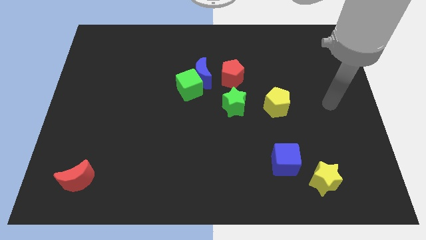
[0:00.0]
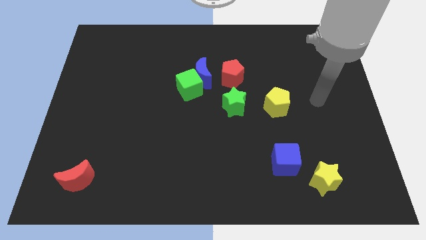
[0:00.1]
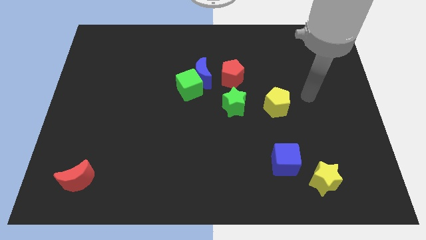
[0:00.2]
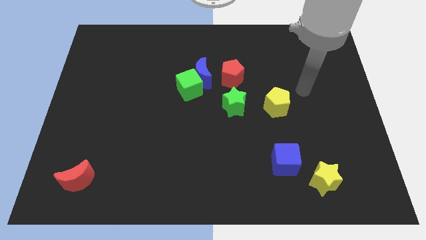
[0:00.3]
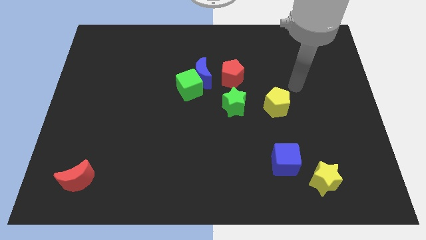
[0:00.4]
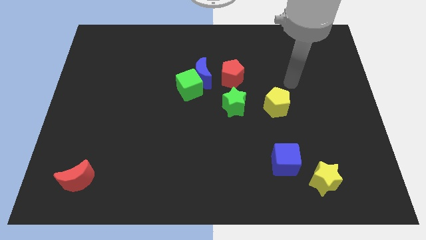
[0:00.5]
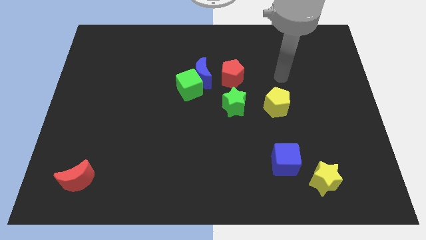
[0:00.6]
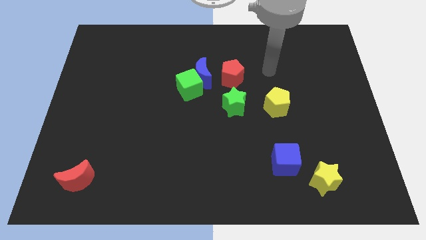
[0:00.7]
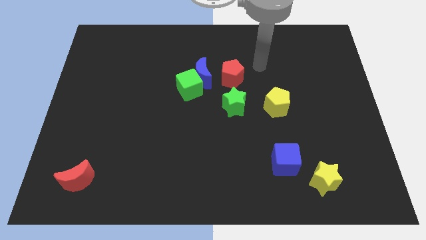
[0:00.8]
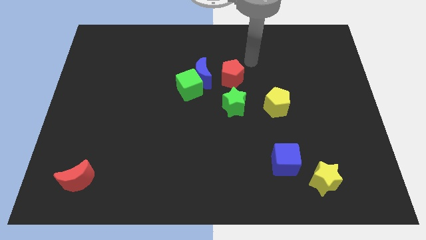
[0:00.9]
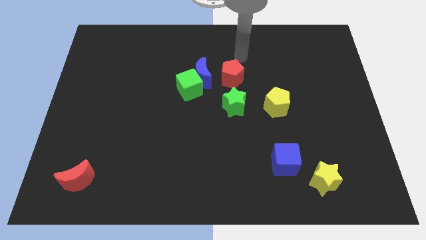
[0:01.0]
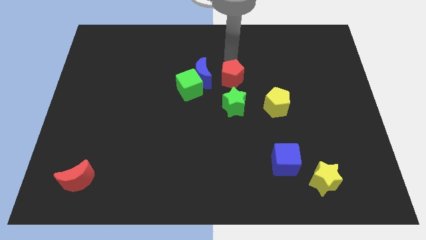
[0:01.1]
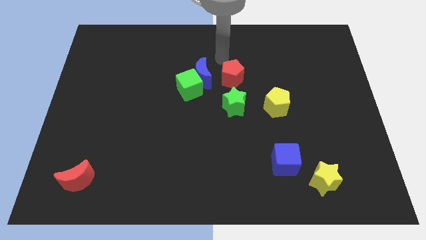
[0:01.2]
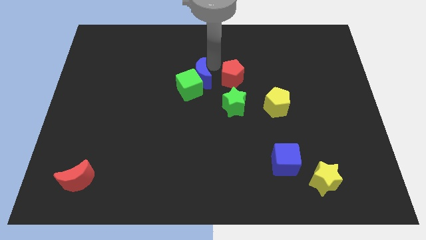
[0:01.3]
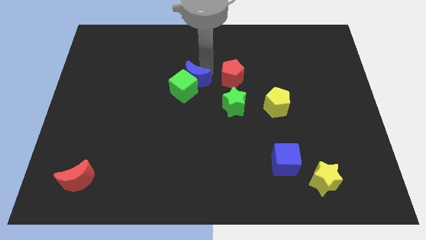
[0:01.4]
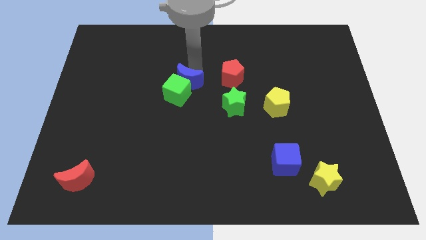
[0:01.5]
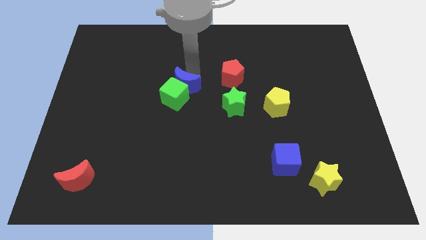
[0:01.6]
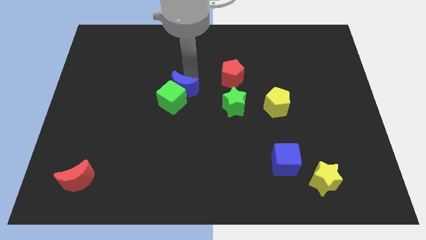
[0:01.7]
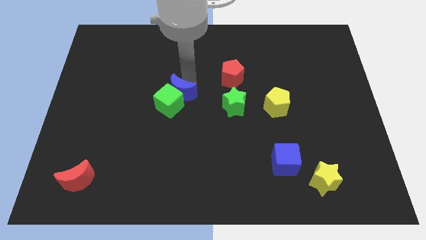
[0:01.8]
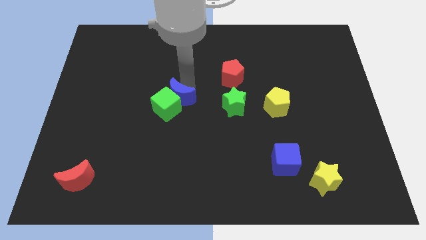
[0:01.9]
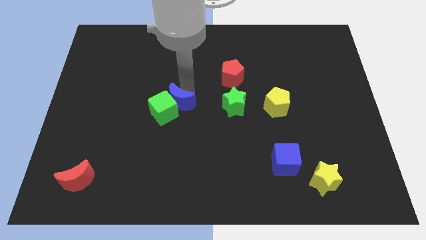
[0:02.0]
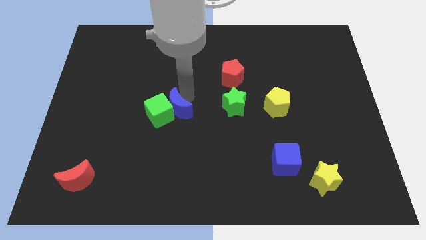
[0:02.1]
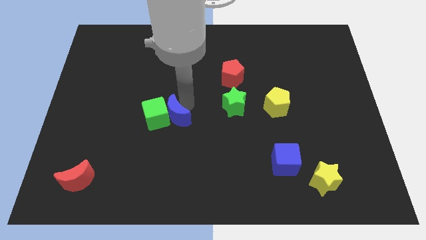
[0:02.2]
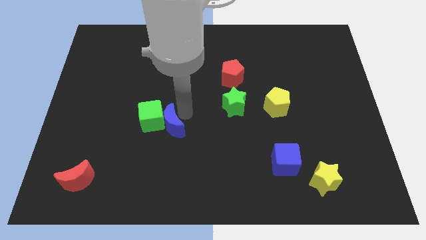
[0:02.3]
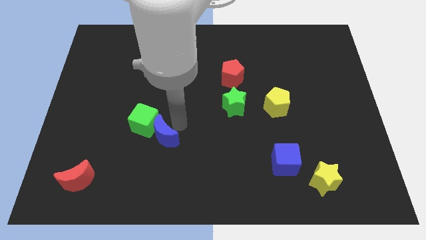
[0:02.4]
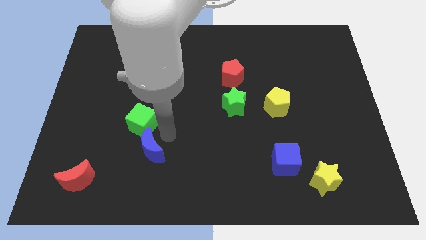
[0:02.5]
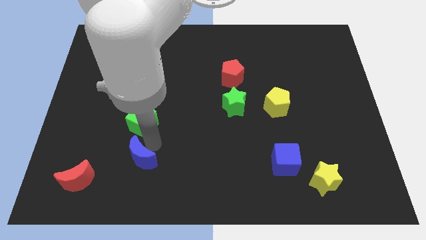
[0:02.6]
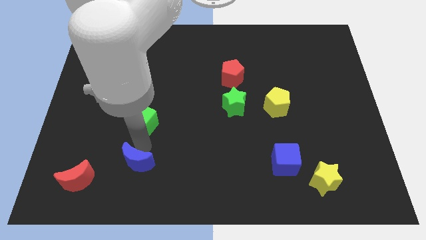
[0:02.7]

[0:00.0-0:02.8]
pull the green cube apart from the blue moon

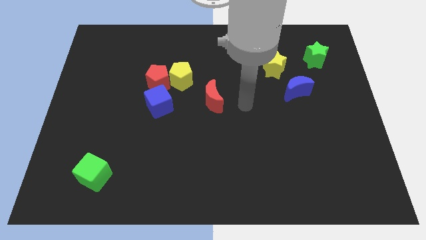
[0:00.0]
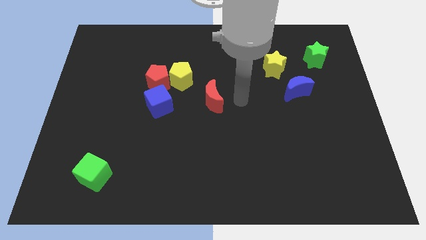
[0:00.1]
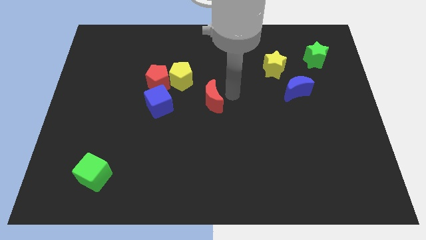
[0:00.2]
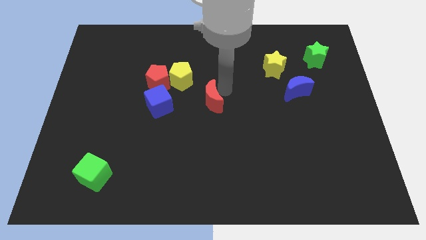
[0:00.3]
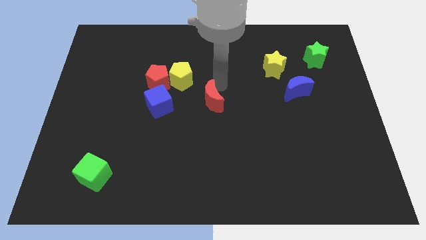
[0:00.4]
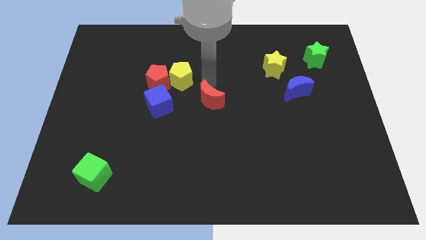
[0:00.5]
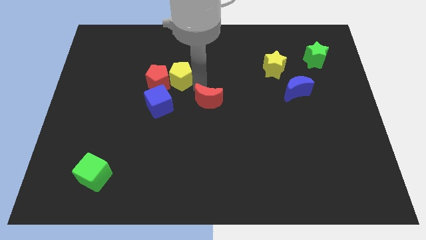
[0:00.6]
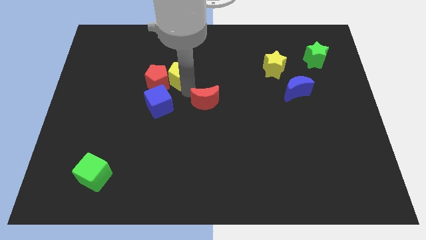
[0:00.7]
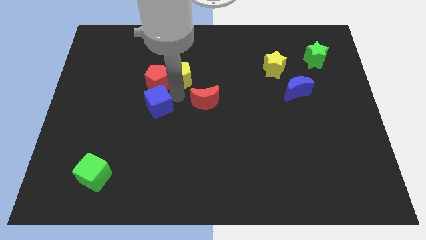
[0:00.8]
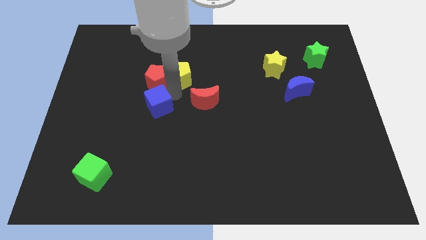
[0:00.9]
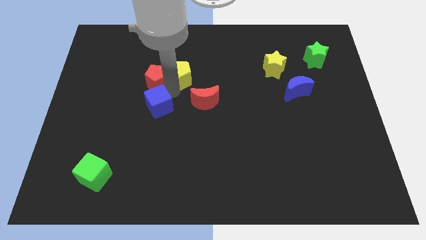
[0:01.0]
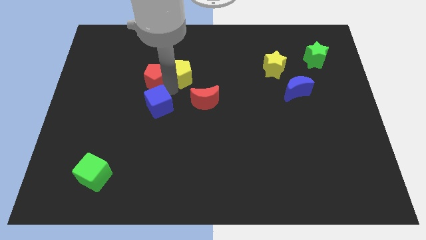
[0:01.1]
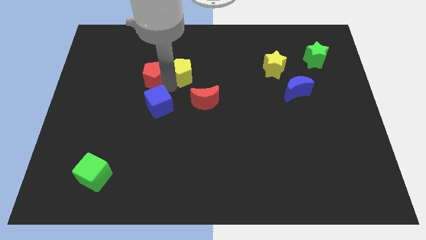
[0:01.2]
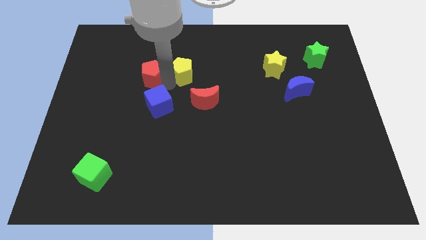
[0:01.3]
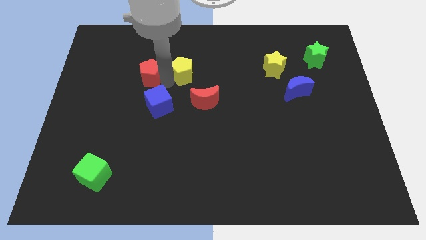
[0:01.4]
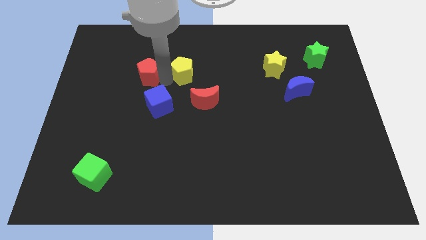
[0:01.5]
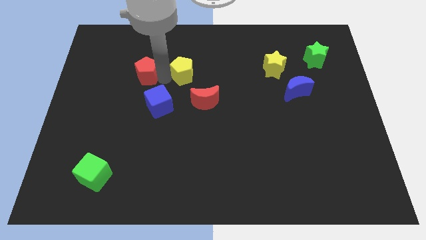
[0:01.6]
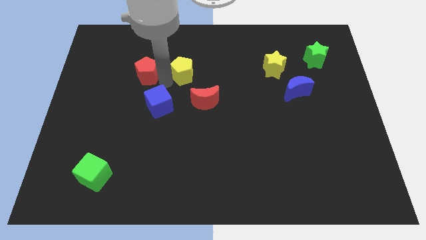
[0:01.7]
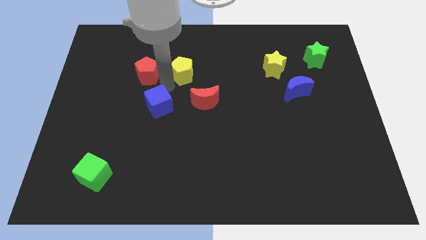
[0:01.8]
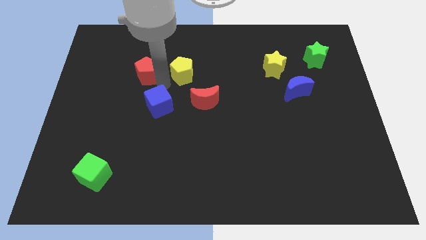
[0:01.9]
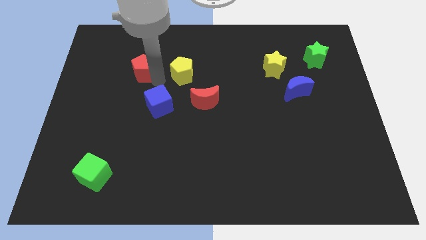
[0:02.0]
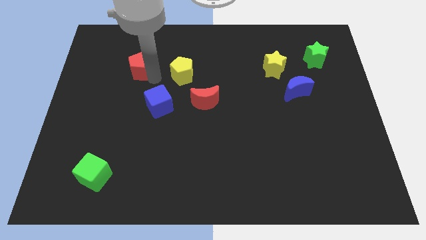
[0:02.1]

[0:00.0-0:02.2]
separate the red pentagon from the yellow pentagon and blue cube

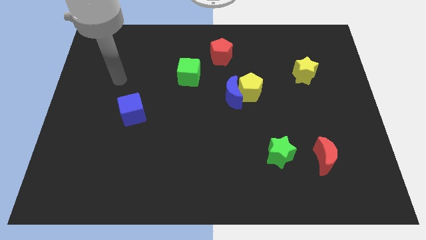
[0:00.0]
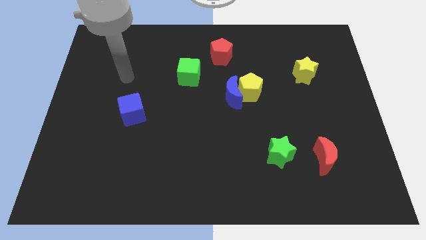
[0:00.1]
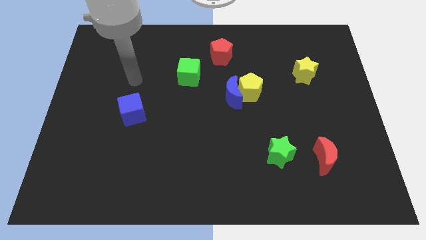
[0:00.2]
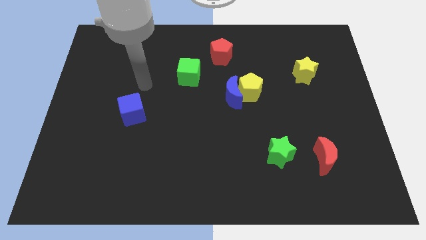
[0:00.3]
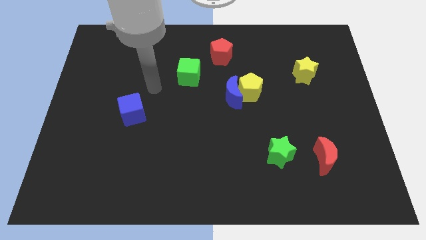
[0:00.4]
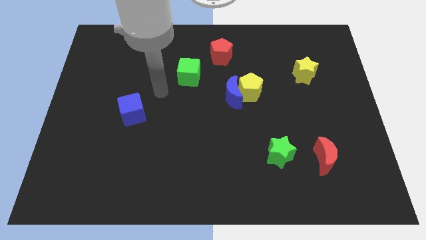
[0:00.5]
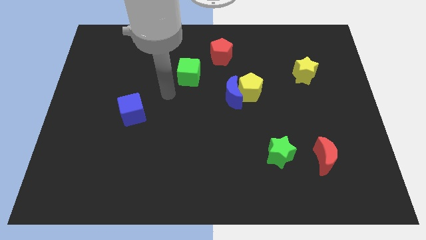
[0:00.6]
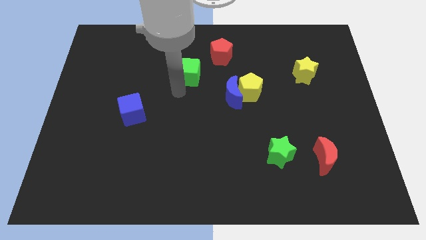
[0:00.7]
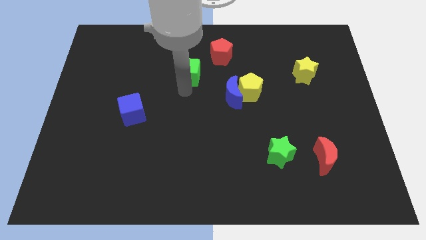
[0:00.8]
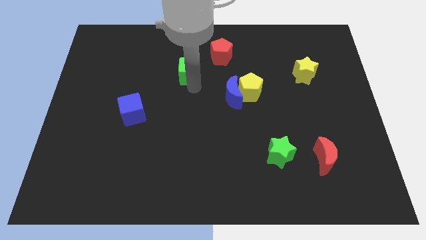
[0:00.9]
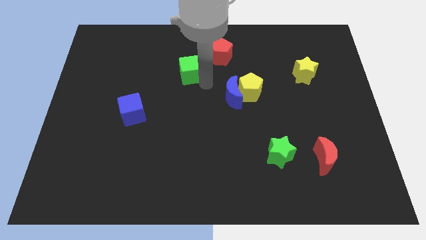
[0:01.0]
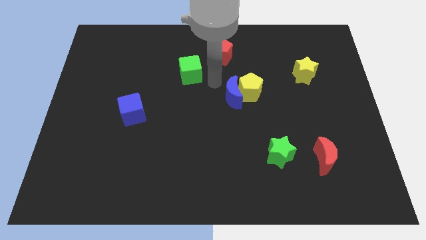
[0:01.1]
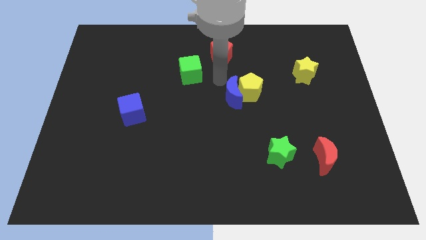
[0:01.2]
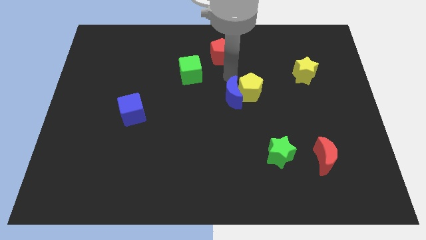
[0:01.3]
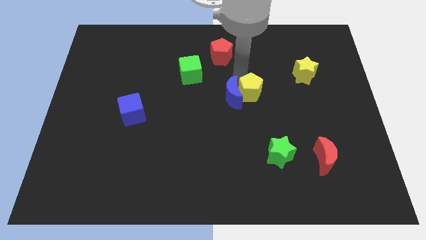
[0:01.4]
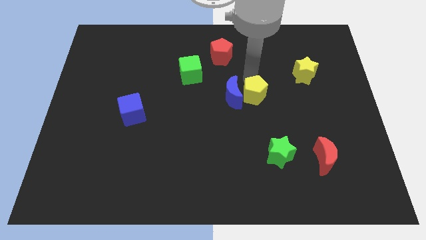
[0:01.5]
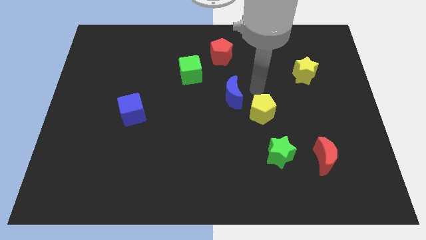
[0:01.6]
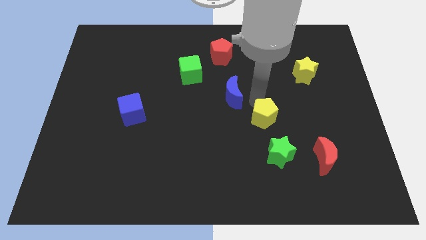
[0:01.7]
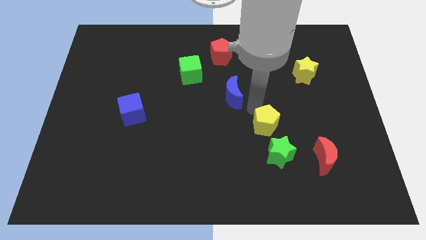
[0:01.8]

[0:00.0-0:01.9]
separate the blue moon from the yellow pentagon

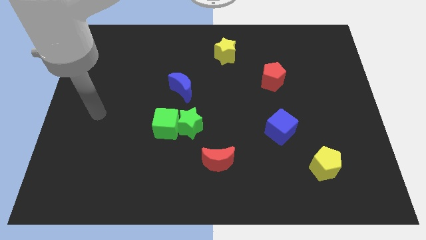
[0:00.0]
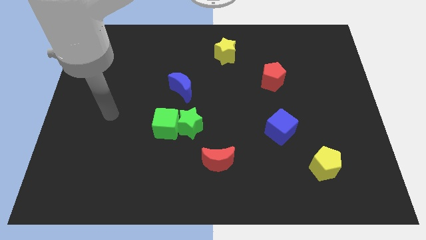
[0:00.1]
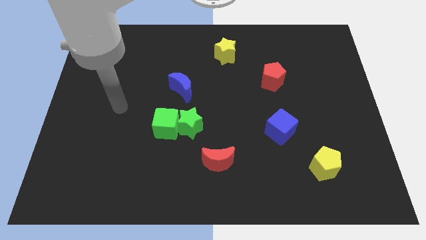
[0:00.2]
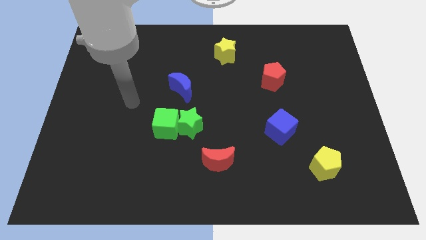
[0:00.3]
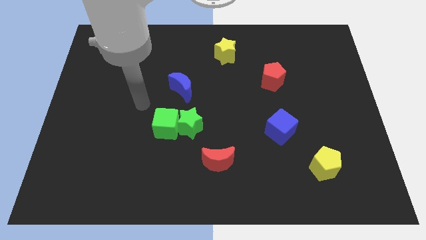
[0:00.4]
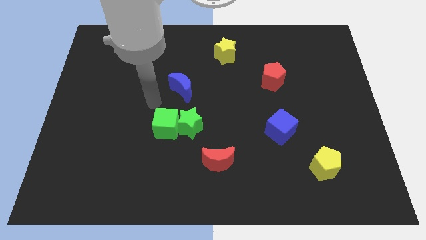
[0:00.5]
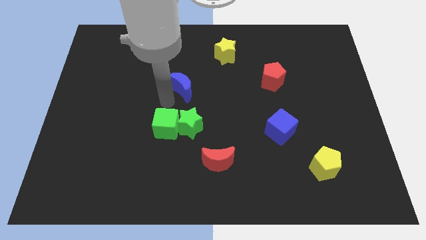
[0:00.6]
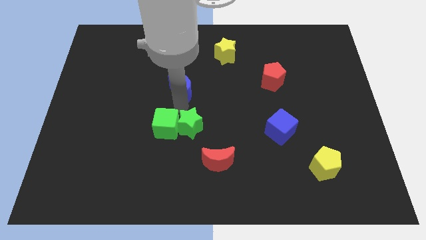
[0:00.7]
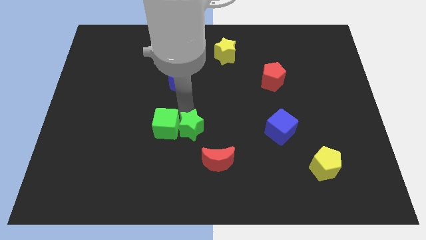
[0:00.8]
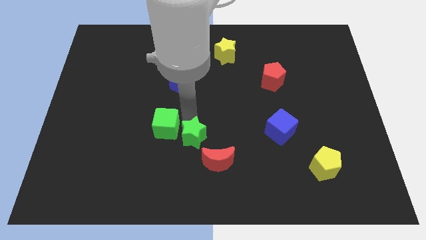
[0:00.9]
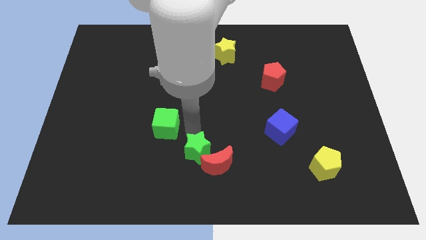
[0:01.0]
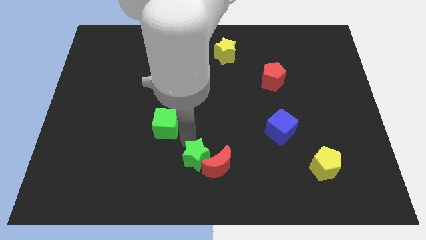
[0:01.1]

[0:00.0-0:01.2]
separate the green cube from the green star

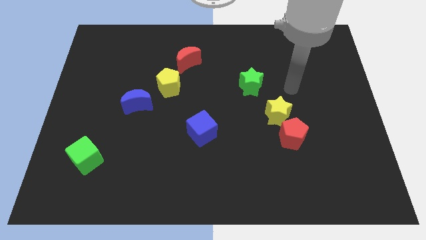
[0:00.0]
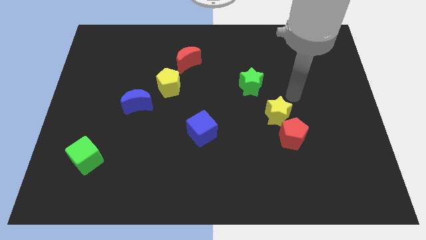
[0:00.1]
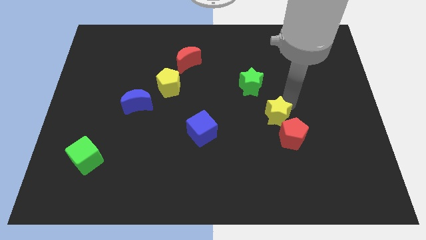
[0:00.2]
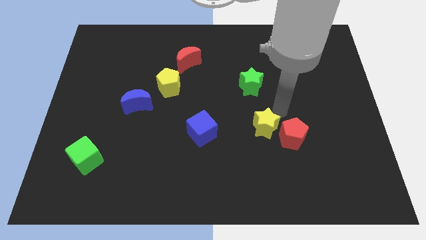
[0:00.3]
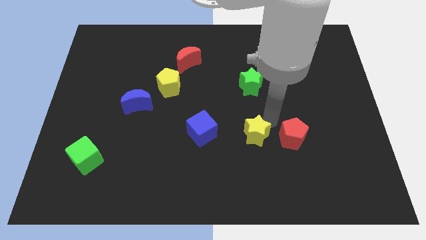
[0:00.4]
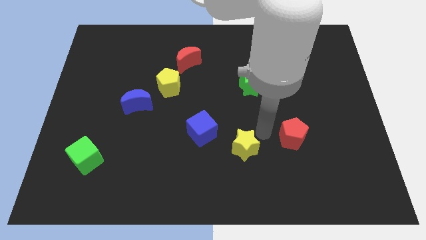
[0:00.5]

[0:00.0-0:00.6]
move the red pentagon away from the yellow star

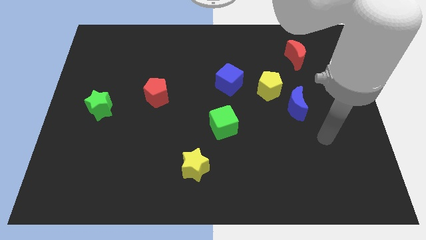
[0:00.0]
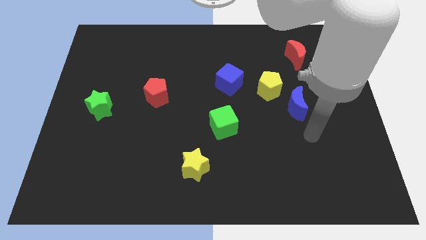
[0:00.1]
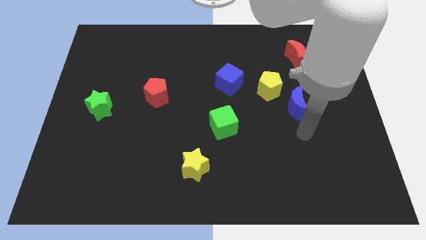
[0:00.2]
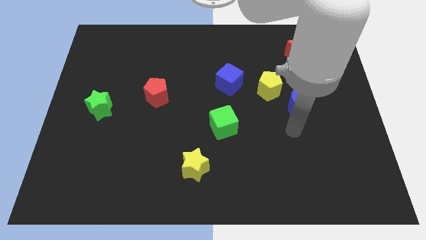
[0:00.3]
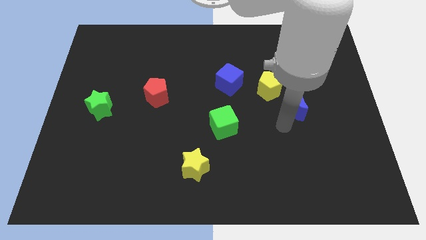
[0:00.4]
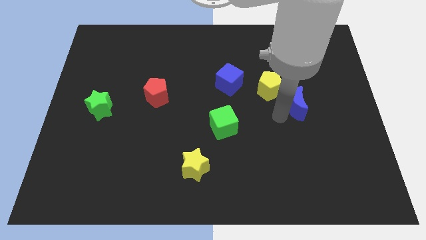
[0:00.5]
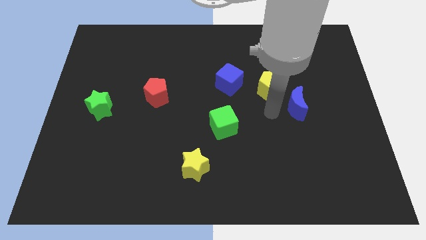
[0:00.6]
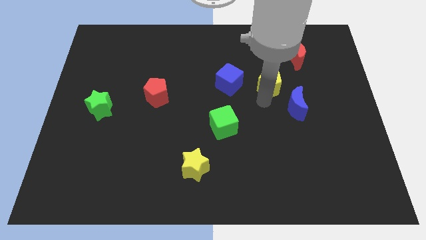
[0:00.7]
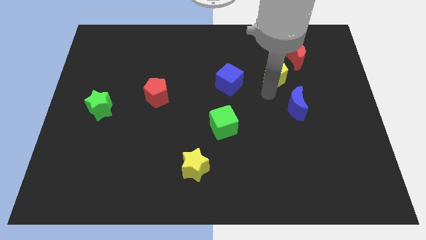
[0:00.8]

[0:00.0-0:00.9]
pull the blue moon apart from the yellow pentagon
